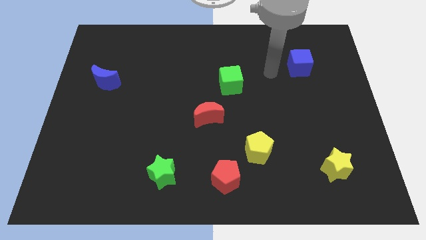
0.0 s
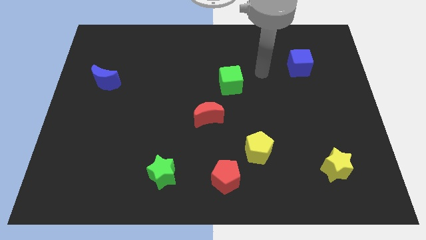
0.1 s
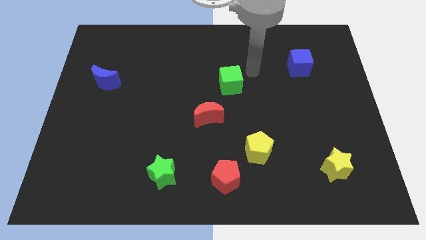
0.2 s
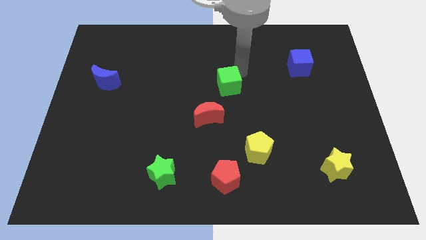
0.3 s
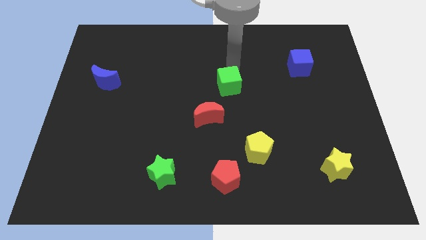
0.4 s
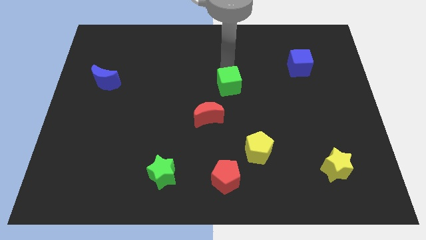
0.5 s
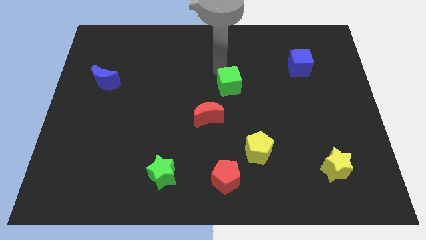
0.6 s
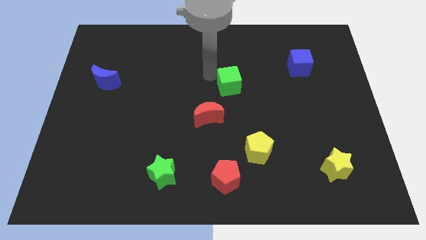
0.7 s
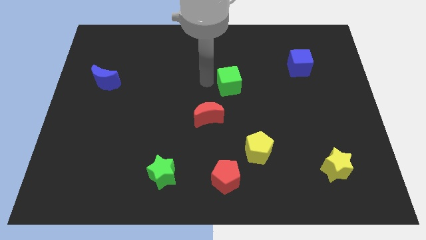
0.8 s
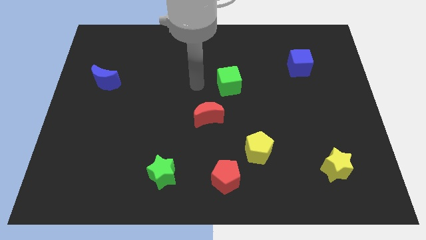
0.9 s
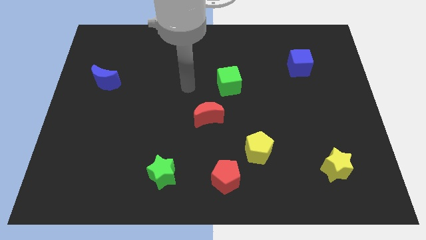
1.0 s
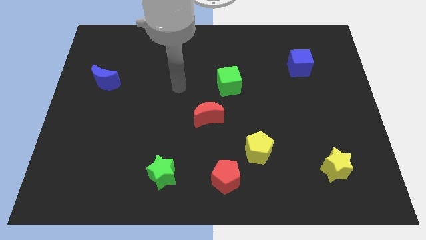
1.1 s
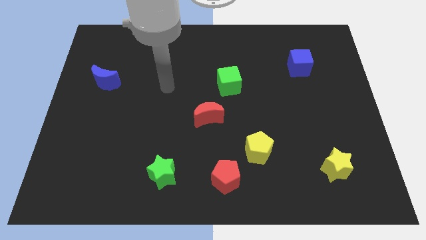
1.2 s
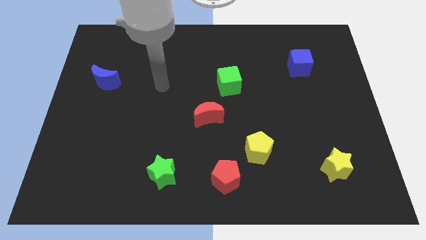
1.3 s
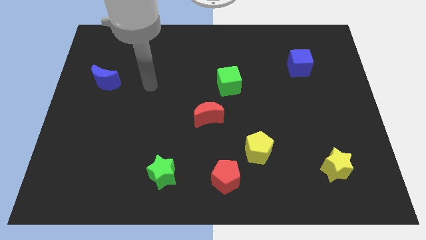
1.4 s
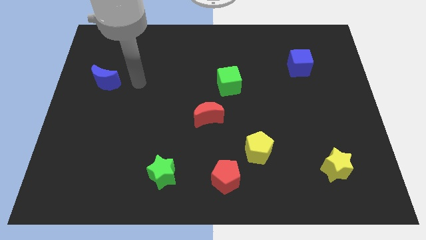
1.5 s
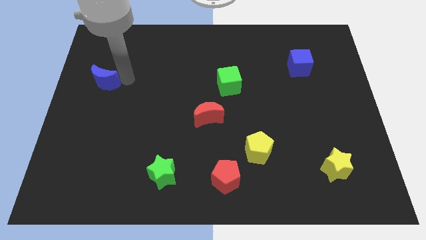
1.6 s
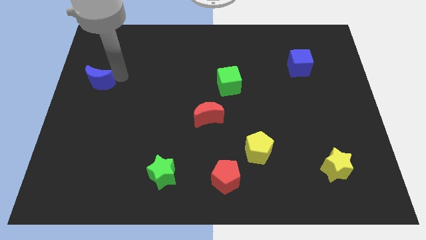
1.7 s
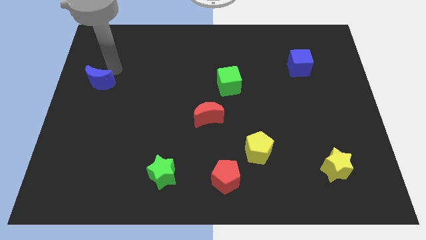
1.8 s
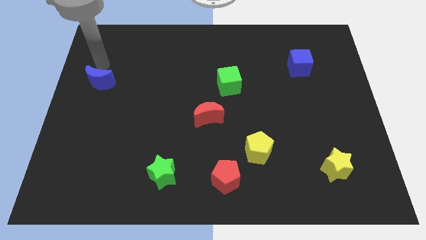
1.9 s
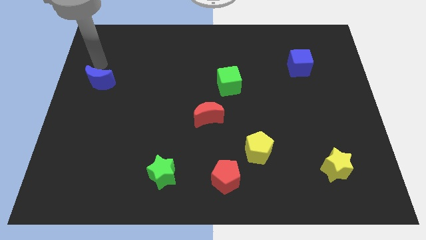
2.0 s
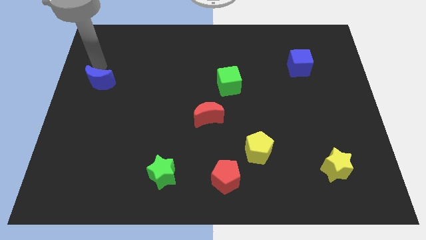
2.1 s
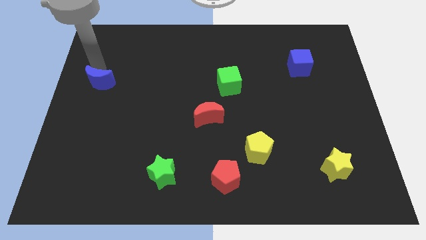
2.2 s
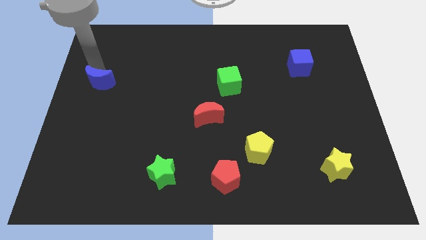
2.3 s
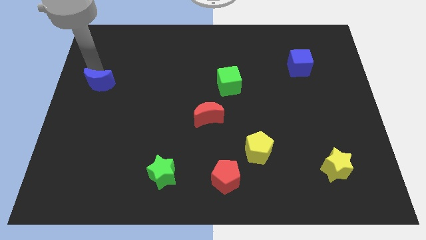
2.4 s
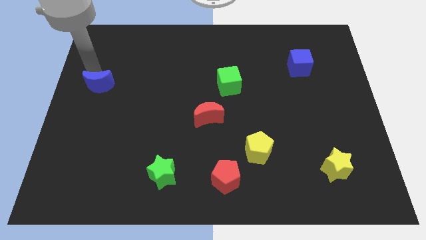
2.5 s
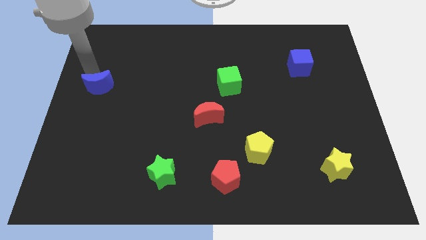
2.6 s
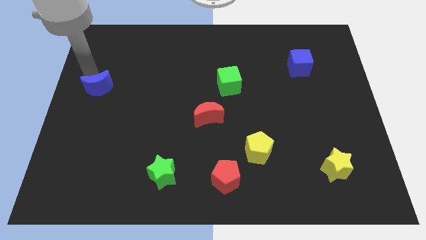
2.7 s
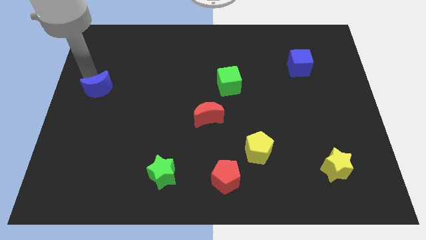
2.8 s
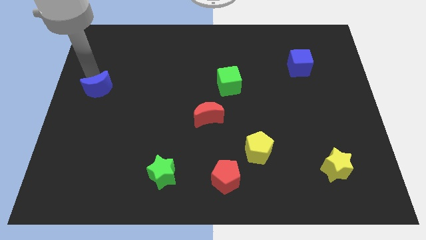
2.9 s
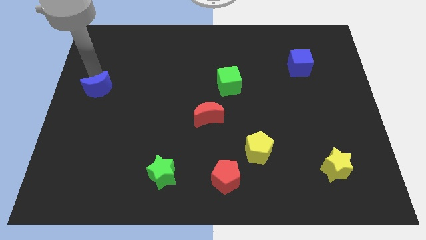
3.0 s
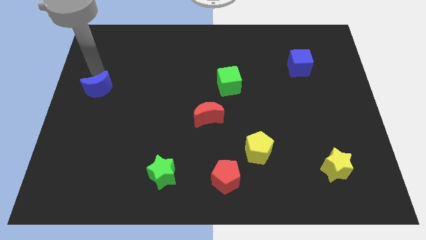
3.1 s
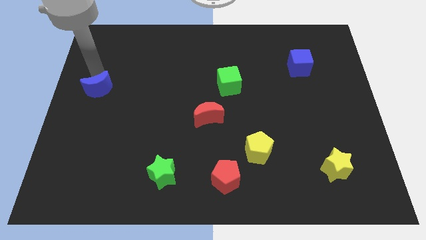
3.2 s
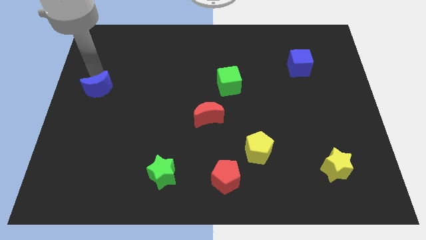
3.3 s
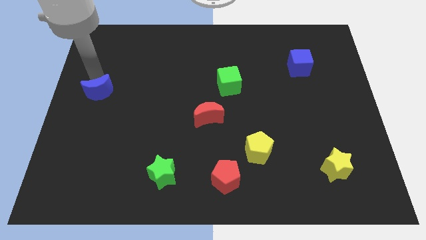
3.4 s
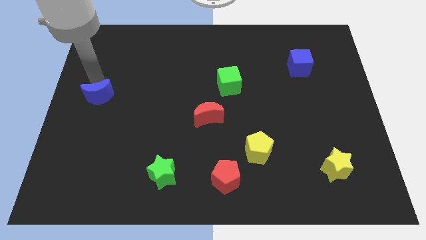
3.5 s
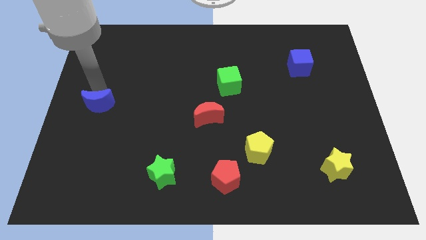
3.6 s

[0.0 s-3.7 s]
slide the blue moon a bit down

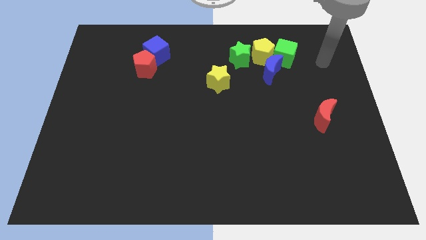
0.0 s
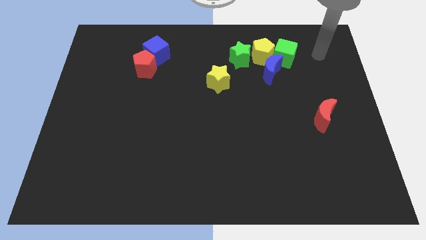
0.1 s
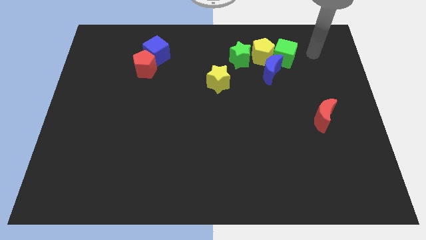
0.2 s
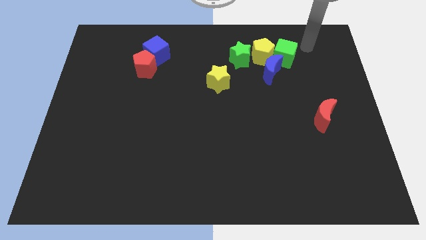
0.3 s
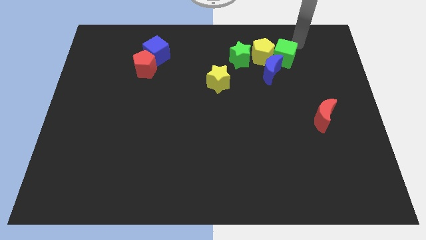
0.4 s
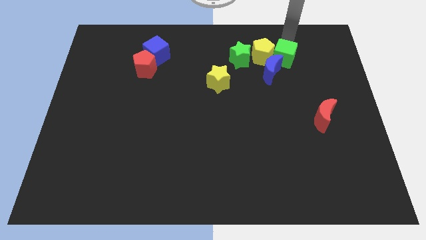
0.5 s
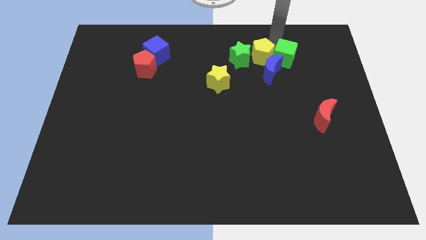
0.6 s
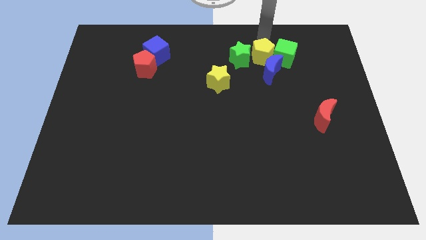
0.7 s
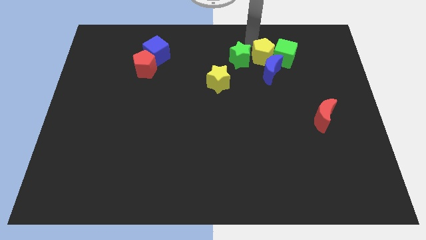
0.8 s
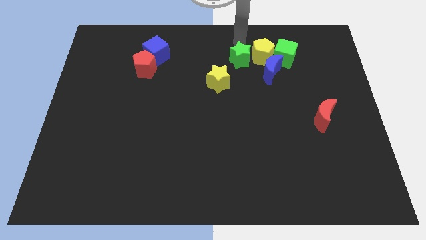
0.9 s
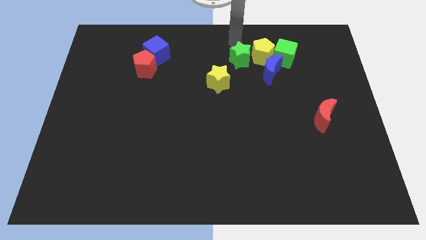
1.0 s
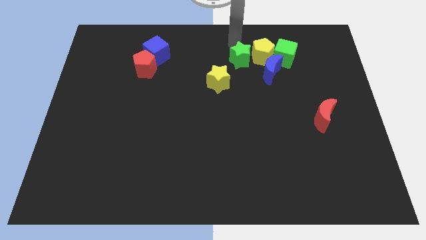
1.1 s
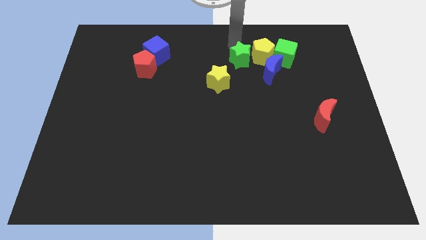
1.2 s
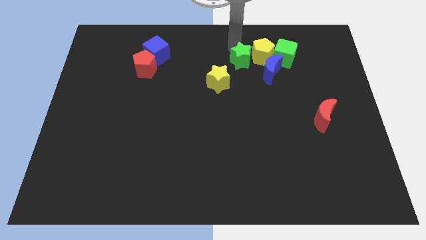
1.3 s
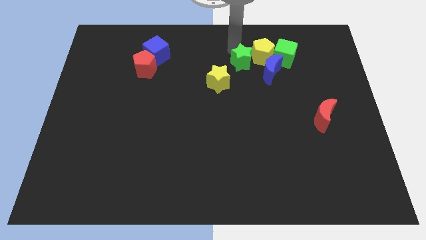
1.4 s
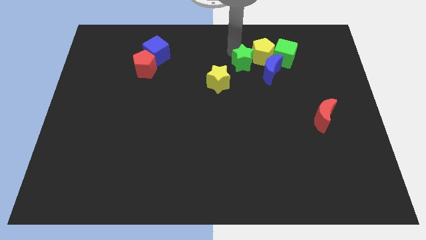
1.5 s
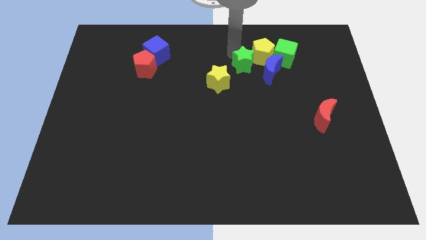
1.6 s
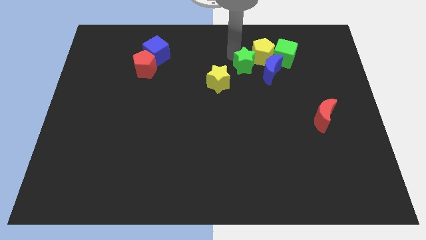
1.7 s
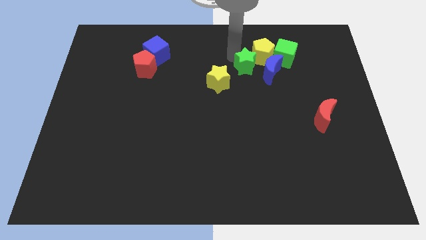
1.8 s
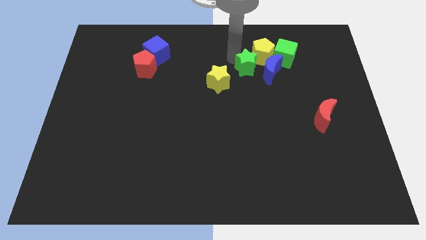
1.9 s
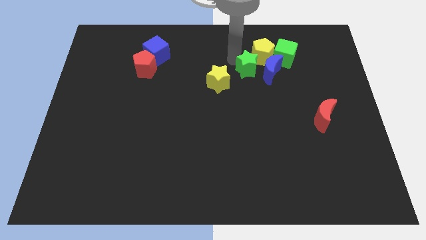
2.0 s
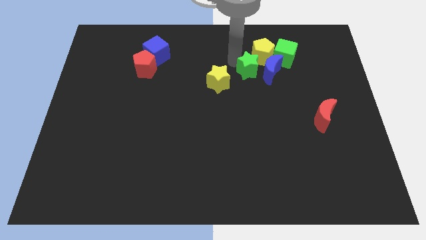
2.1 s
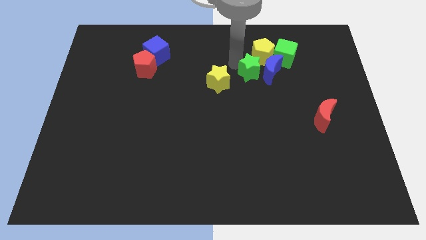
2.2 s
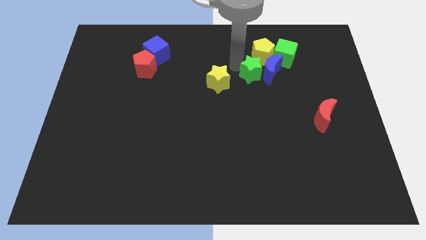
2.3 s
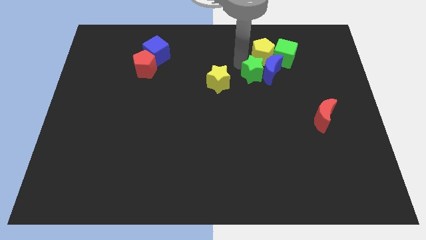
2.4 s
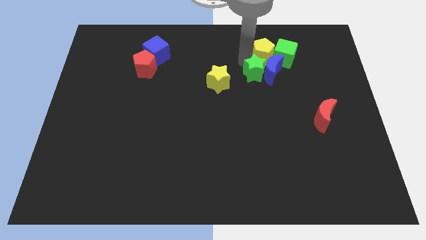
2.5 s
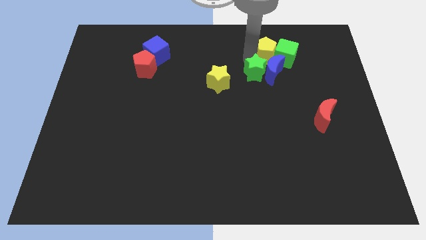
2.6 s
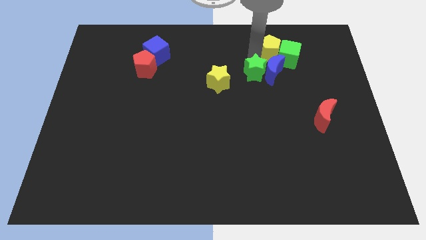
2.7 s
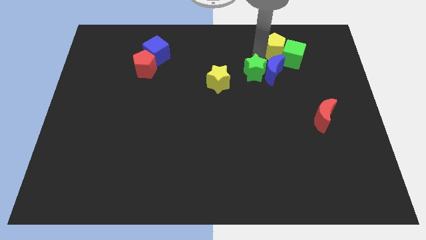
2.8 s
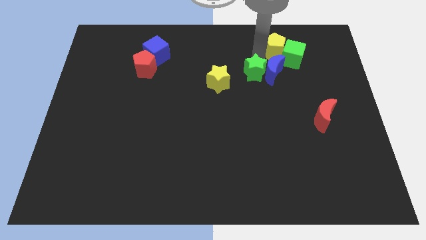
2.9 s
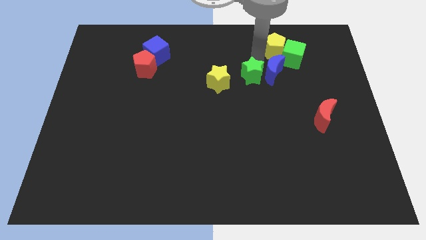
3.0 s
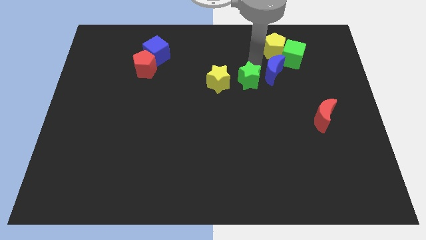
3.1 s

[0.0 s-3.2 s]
move the green star downwards a little bit

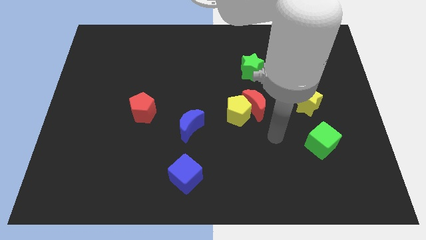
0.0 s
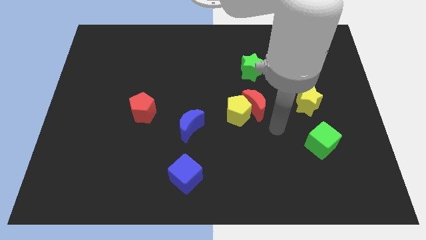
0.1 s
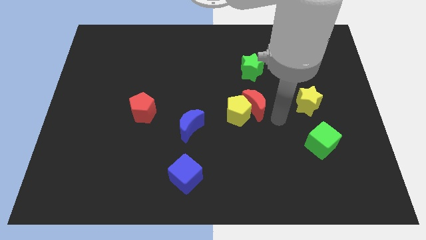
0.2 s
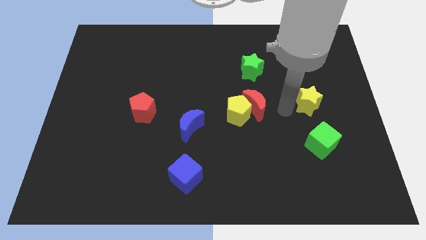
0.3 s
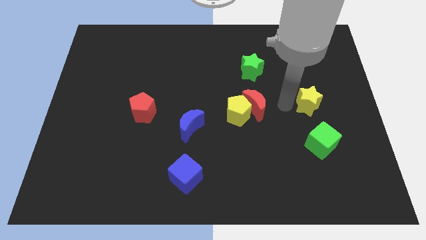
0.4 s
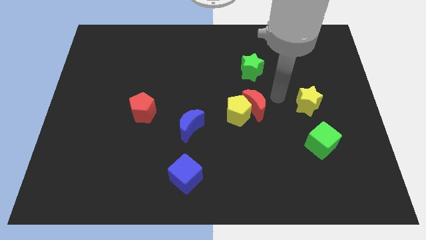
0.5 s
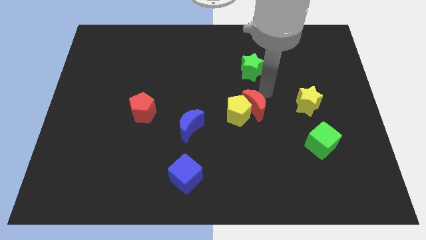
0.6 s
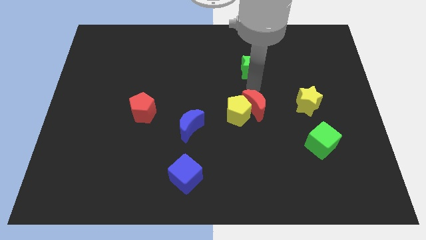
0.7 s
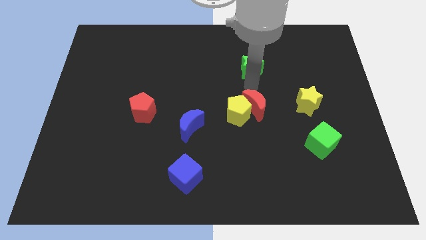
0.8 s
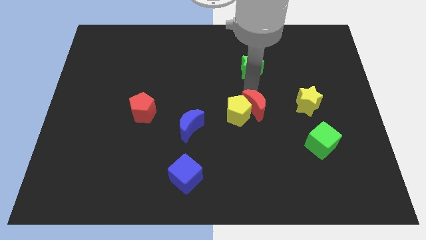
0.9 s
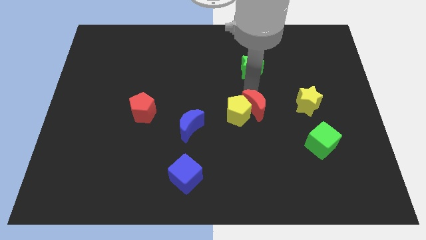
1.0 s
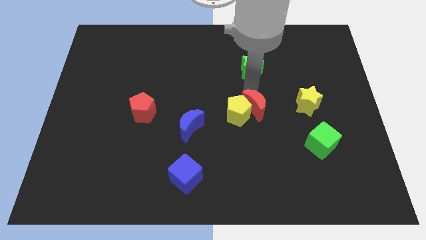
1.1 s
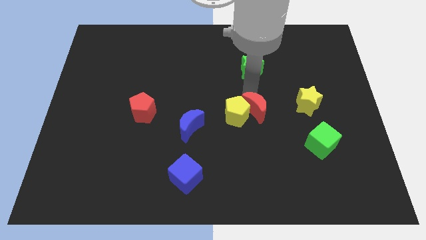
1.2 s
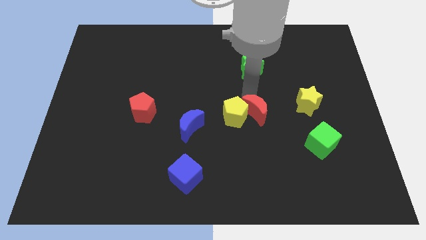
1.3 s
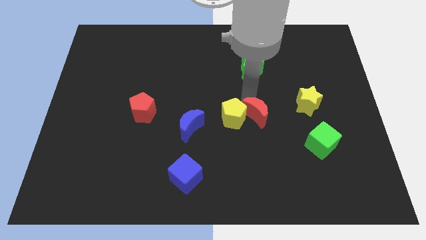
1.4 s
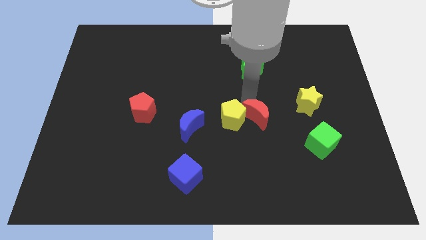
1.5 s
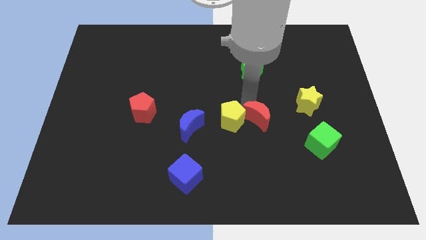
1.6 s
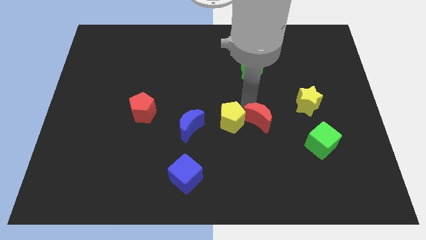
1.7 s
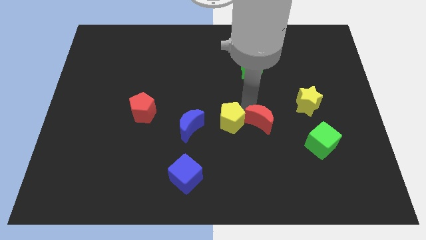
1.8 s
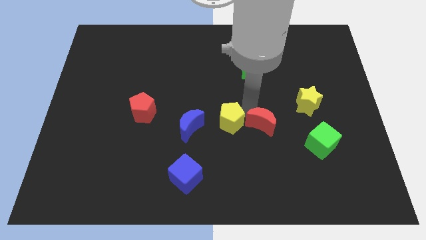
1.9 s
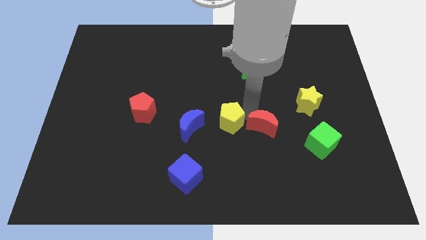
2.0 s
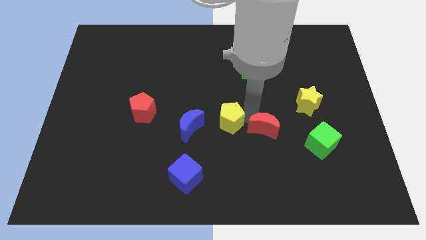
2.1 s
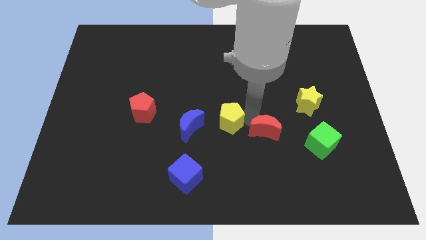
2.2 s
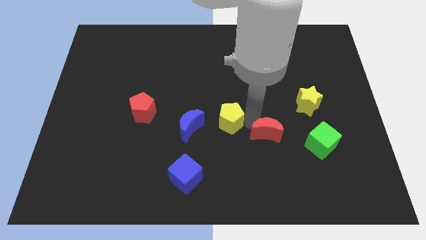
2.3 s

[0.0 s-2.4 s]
push the red moon down a little
